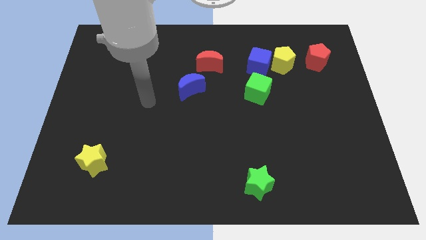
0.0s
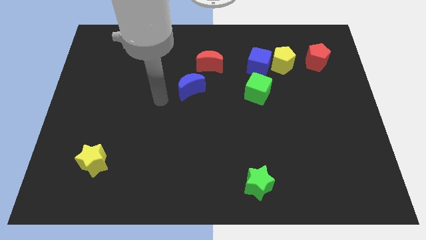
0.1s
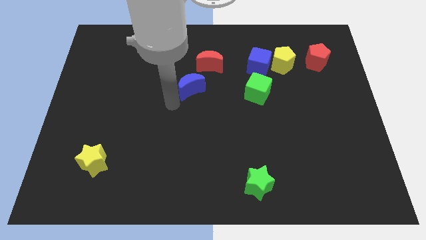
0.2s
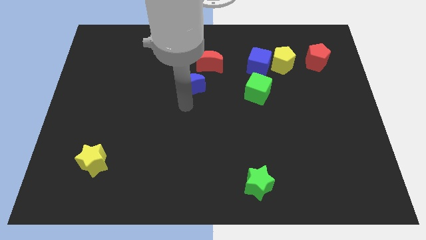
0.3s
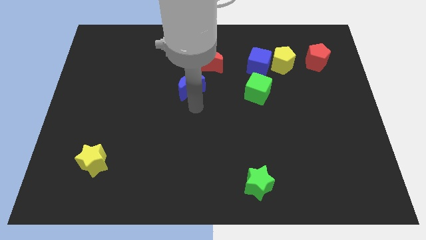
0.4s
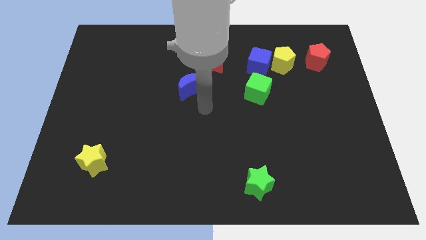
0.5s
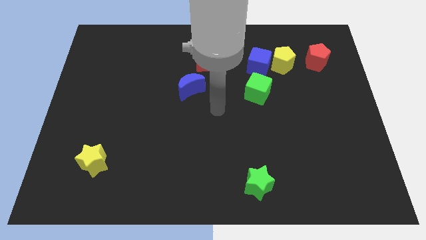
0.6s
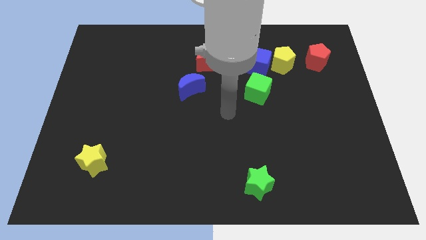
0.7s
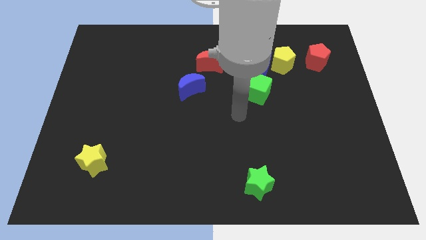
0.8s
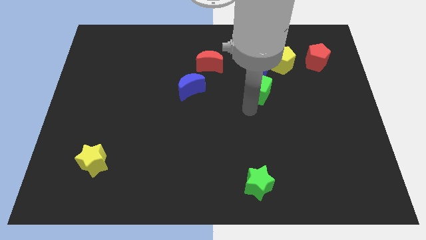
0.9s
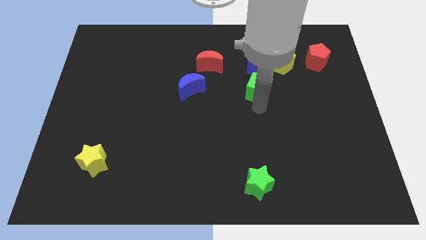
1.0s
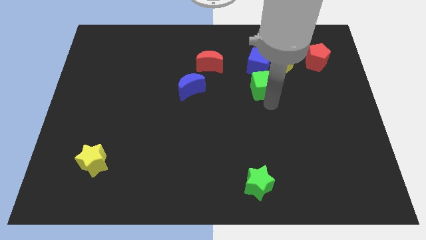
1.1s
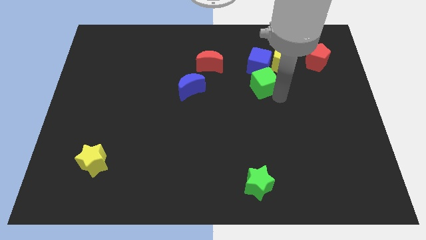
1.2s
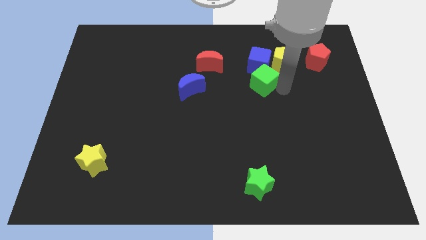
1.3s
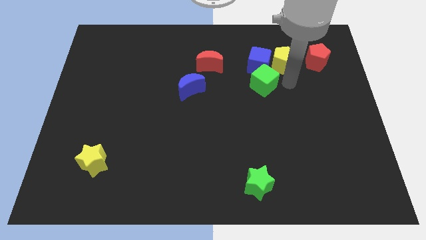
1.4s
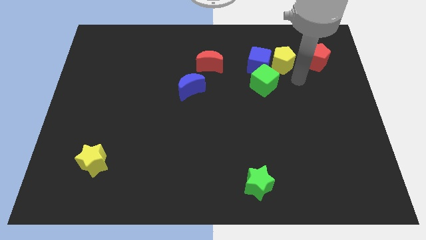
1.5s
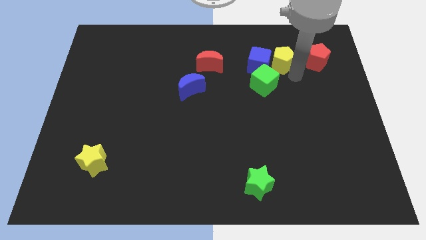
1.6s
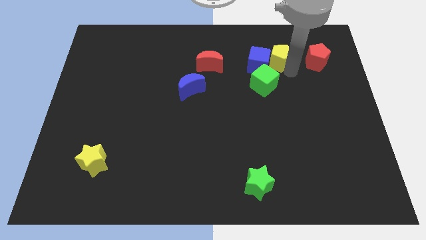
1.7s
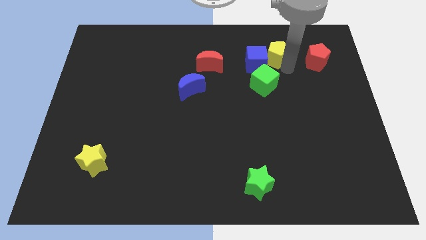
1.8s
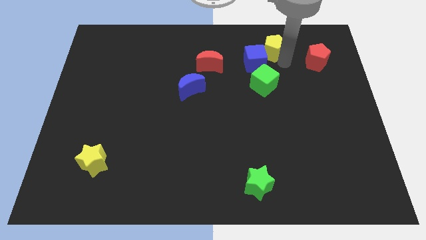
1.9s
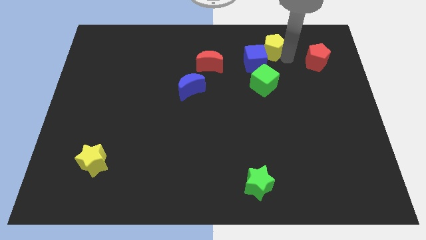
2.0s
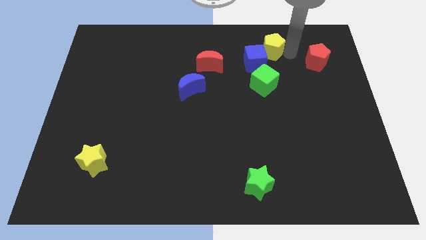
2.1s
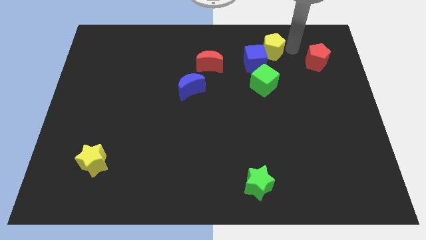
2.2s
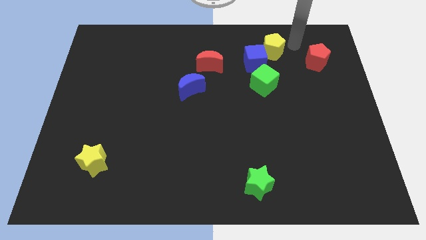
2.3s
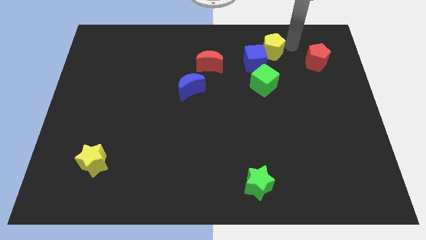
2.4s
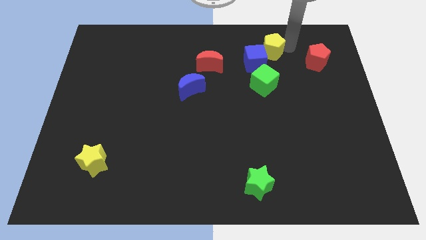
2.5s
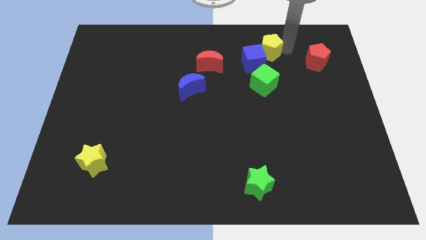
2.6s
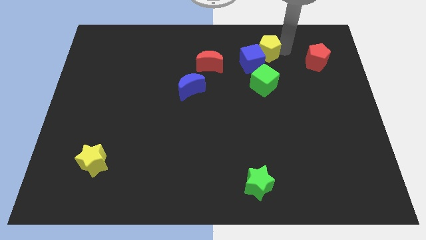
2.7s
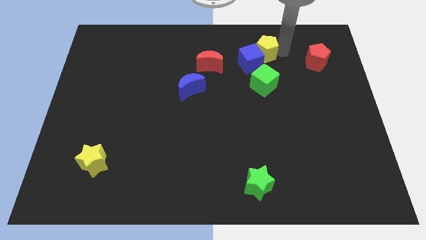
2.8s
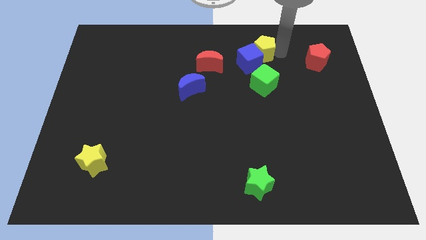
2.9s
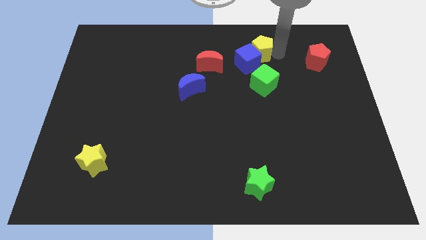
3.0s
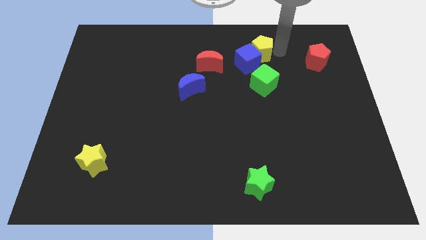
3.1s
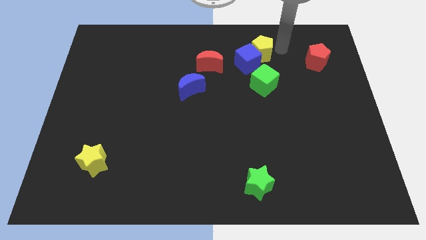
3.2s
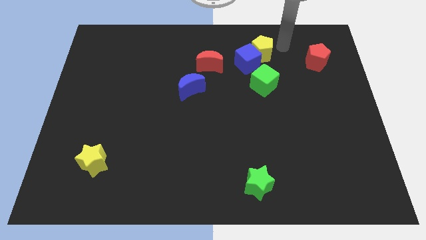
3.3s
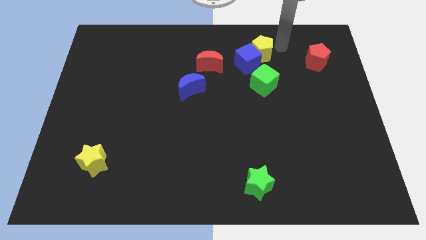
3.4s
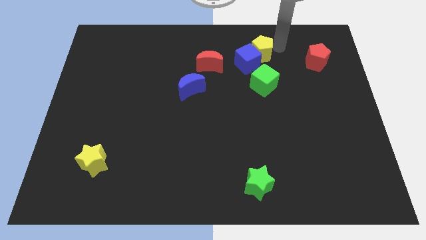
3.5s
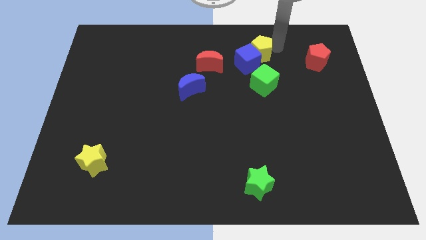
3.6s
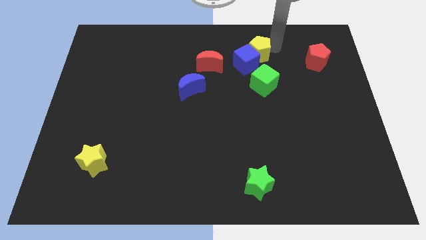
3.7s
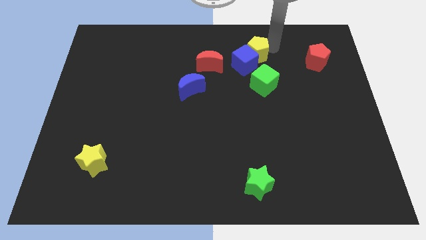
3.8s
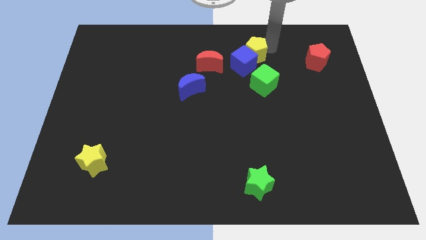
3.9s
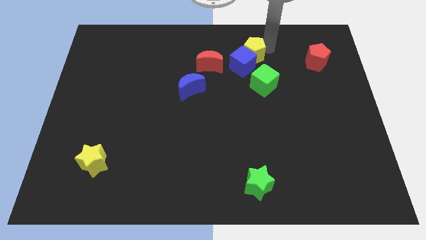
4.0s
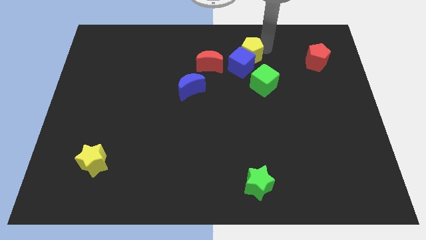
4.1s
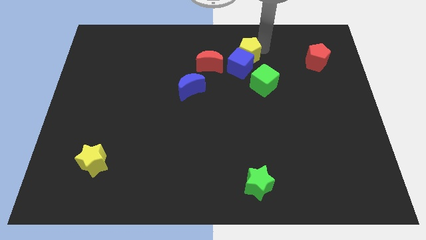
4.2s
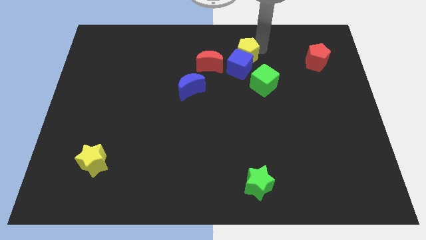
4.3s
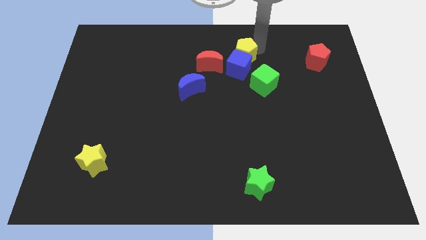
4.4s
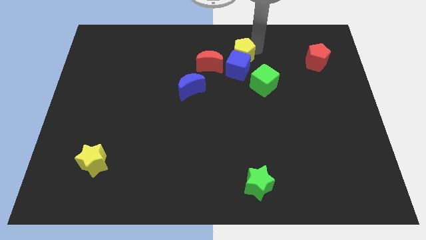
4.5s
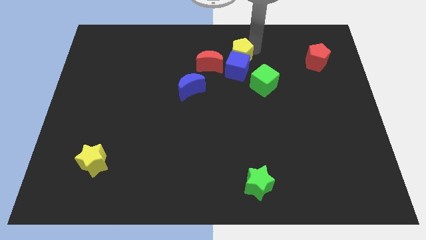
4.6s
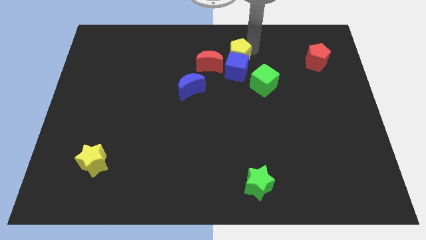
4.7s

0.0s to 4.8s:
pull the yellow pentagon apart from the blue cube and red pentagon

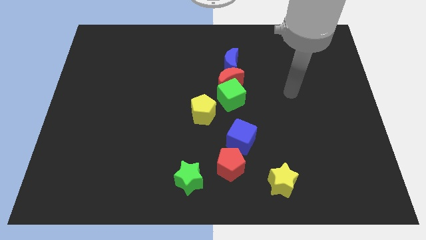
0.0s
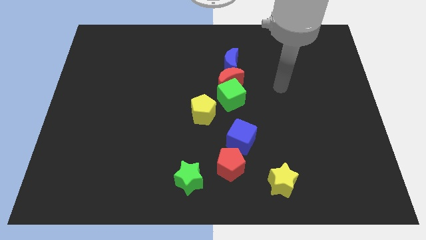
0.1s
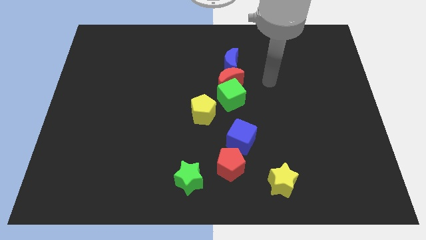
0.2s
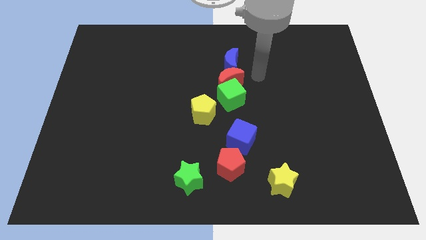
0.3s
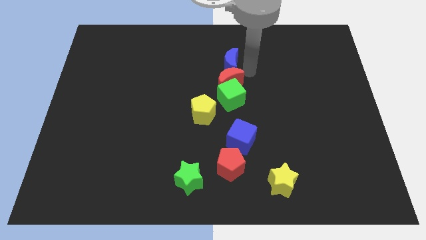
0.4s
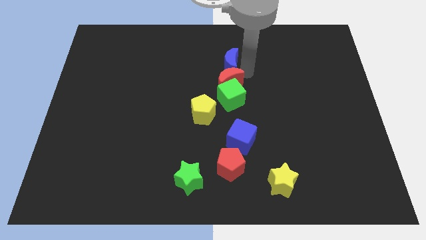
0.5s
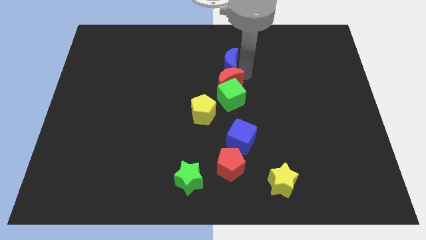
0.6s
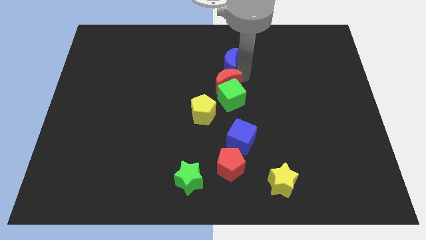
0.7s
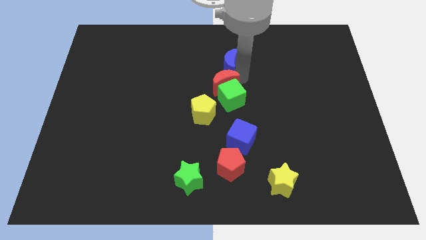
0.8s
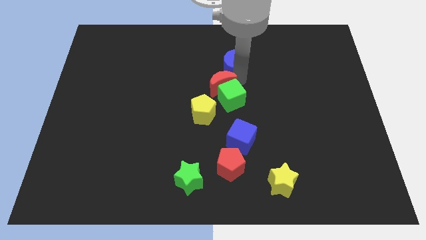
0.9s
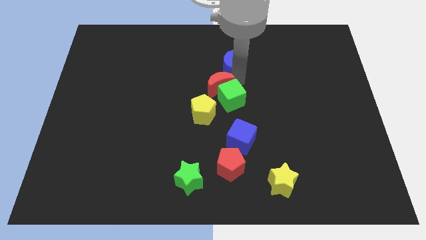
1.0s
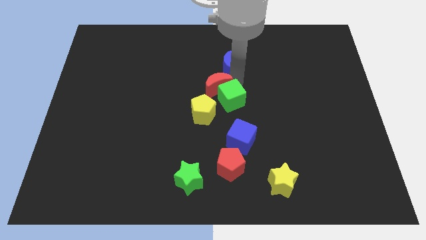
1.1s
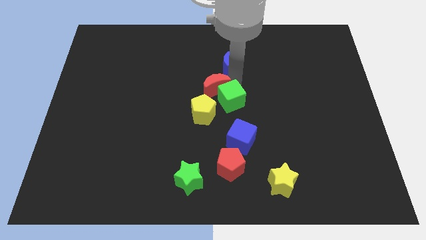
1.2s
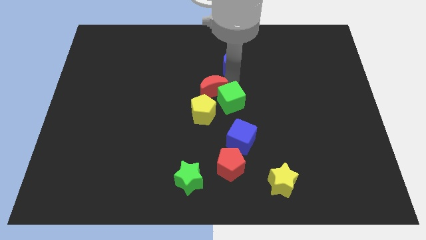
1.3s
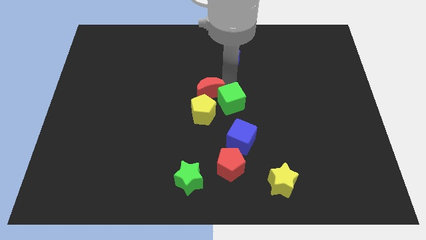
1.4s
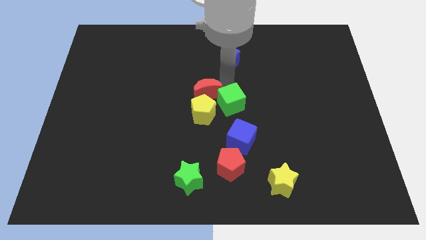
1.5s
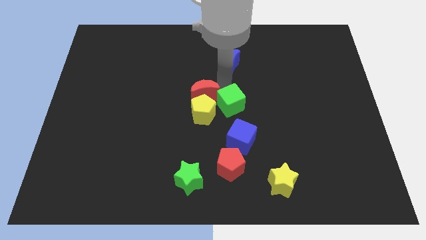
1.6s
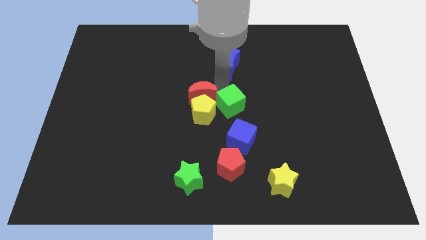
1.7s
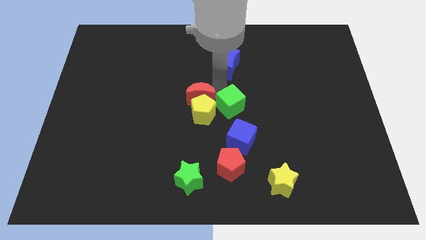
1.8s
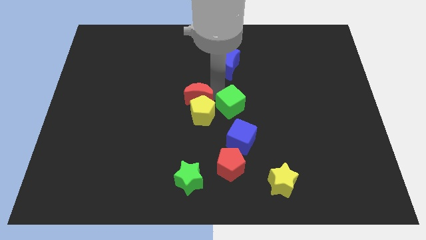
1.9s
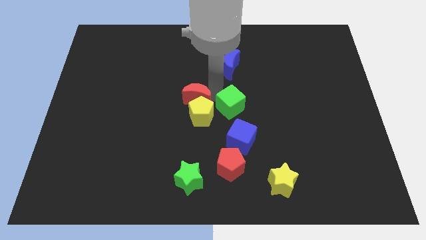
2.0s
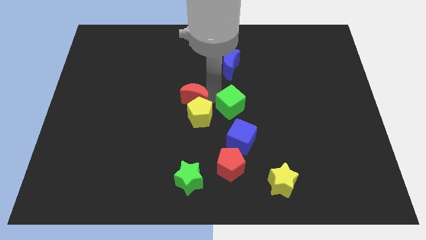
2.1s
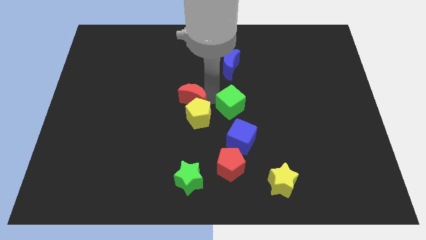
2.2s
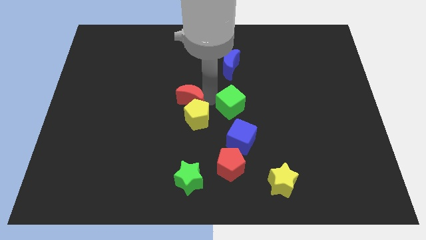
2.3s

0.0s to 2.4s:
move the red moon away from the green cube and blue moon

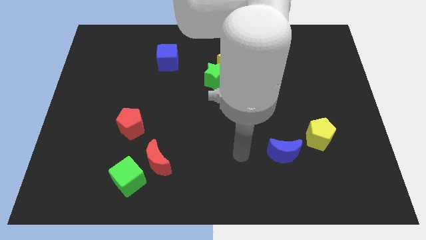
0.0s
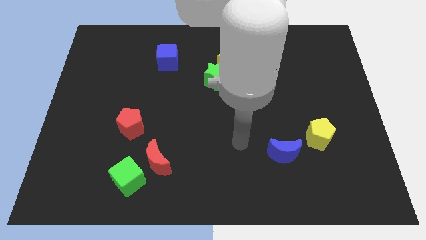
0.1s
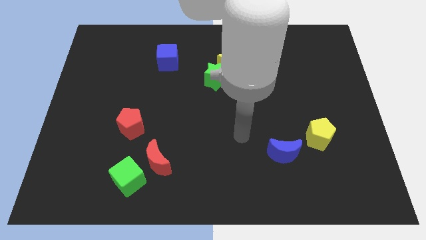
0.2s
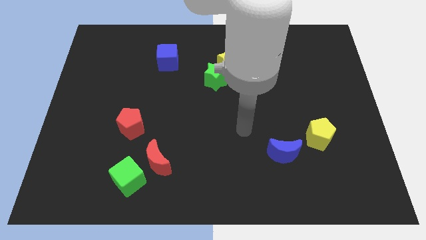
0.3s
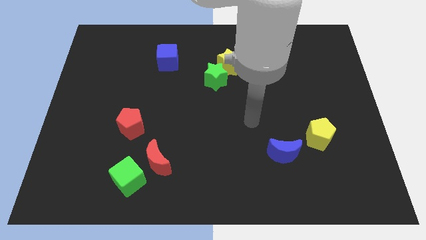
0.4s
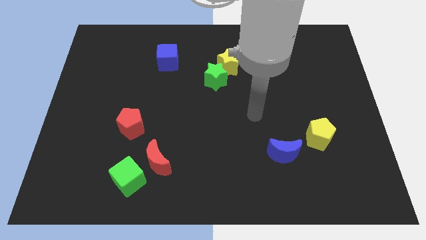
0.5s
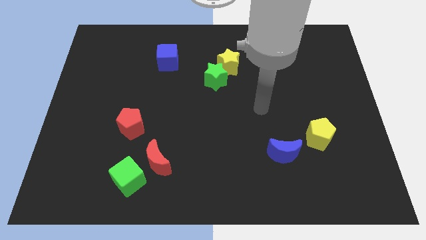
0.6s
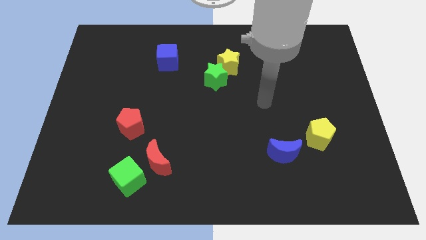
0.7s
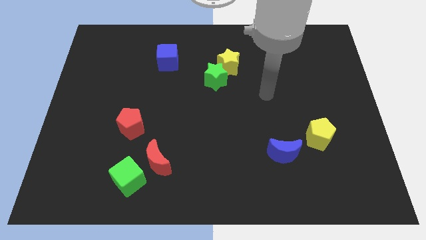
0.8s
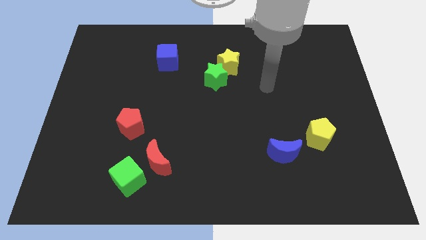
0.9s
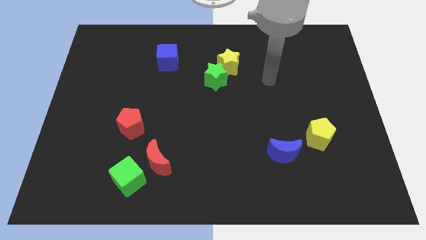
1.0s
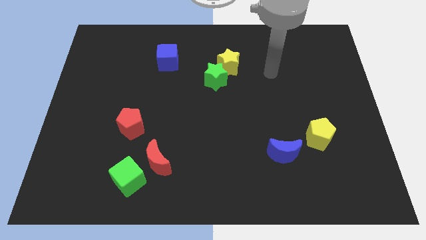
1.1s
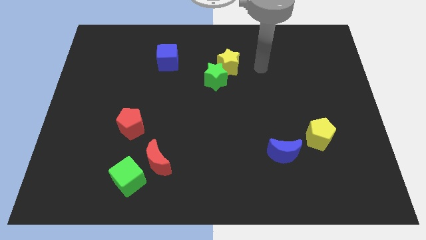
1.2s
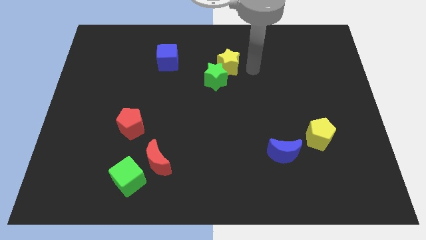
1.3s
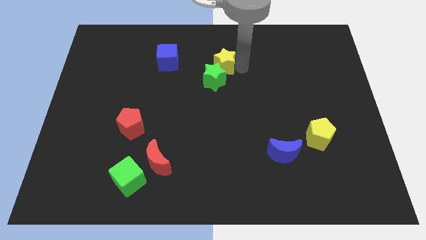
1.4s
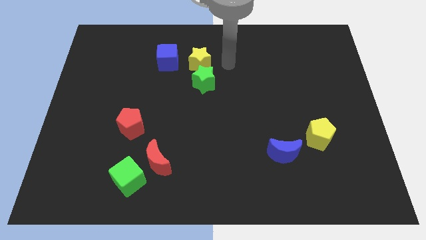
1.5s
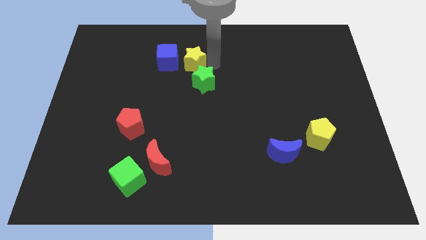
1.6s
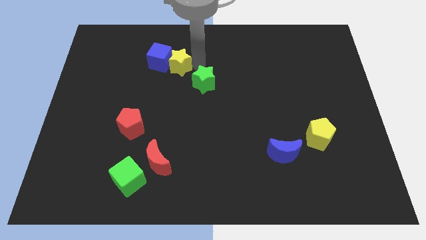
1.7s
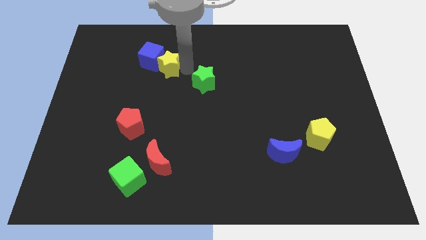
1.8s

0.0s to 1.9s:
pull the green star apart from the yellow star

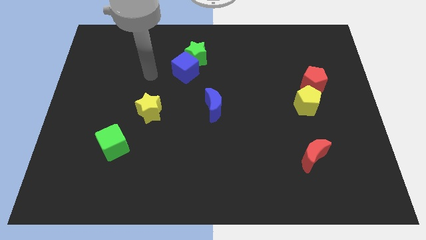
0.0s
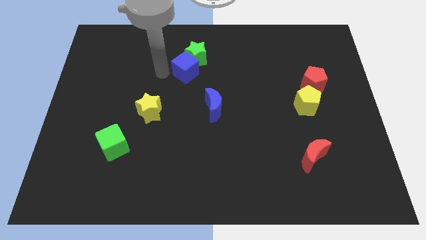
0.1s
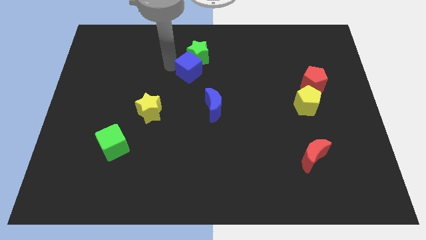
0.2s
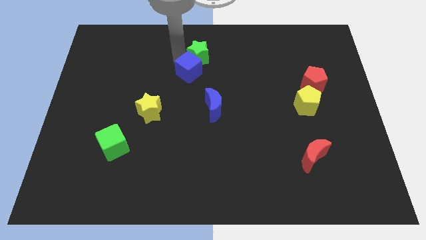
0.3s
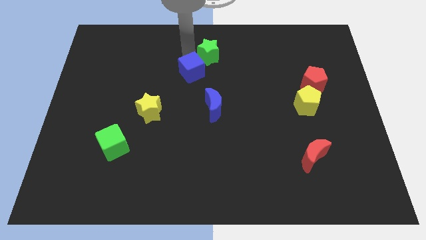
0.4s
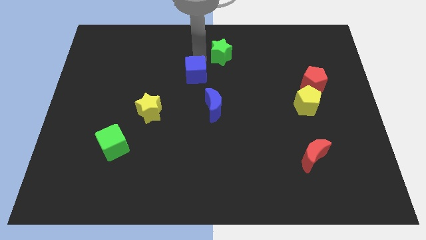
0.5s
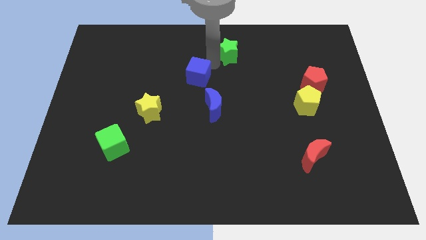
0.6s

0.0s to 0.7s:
move the blue cube away from the green star
